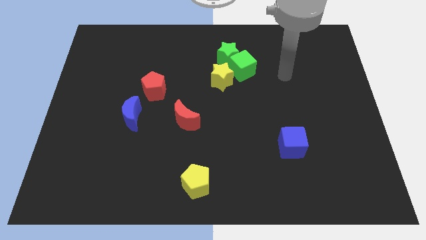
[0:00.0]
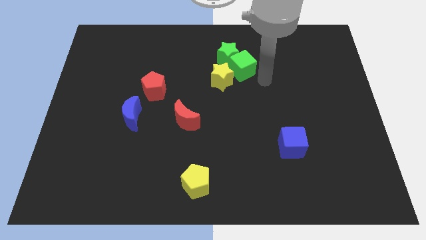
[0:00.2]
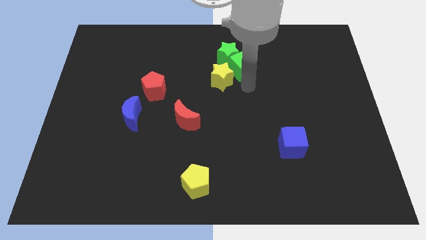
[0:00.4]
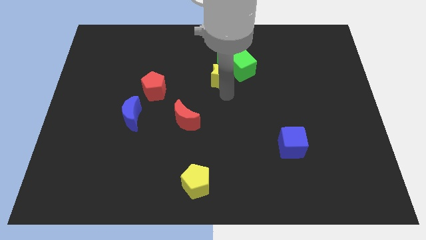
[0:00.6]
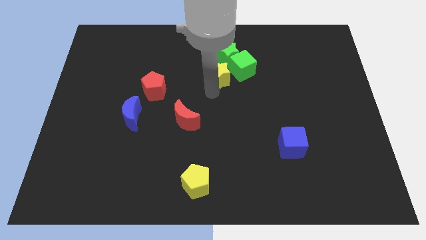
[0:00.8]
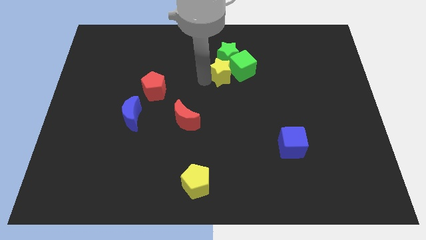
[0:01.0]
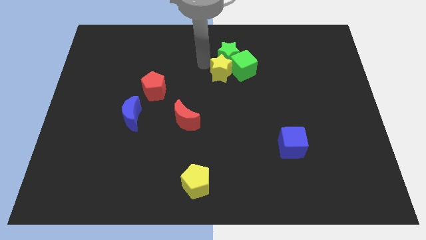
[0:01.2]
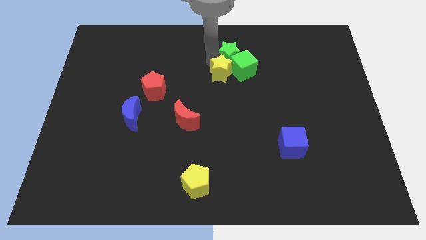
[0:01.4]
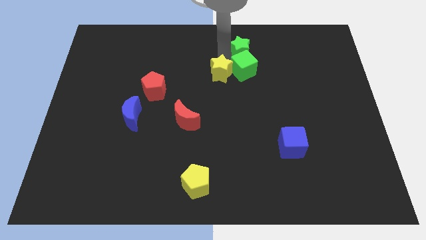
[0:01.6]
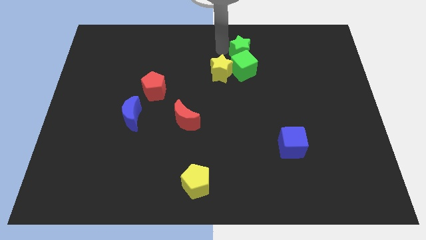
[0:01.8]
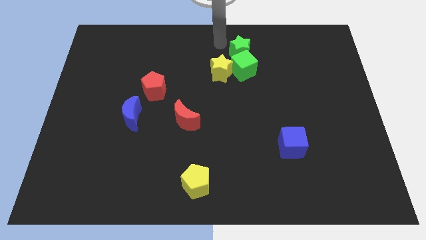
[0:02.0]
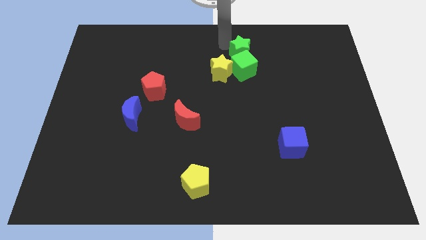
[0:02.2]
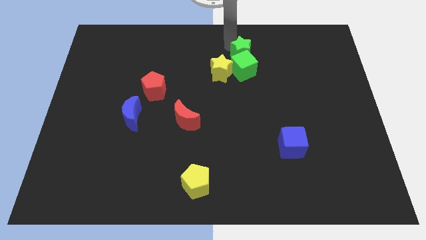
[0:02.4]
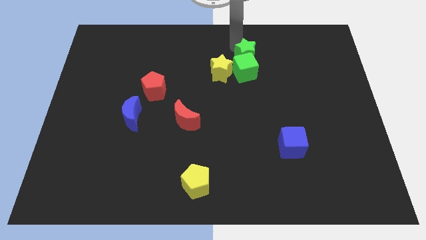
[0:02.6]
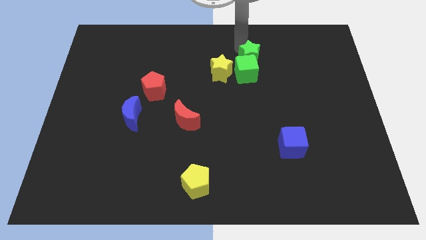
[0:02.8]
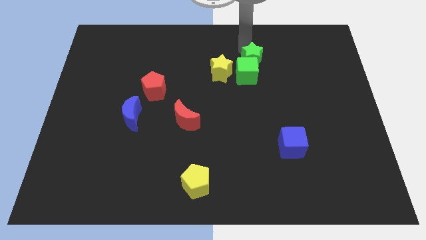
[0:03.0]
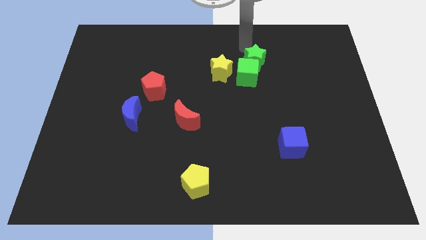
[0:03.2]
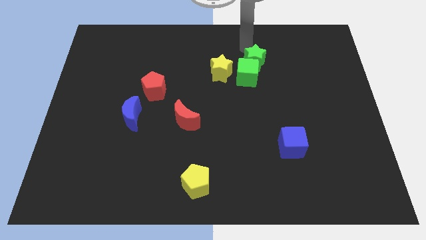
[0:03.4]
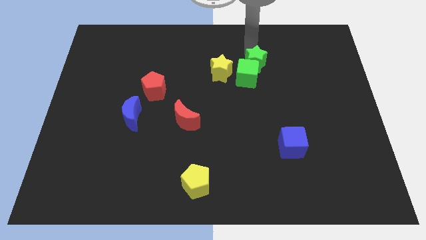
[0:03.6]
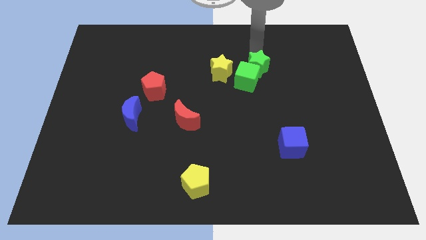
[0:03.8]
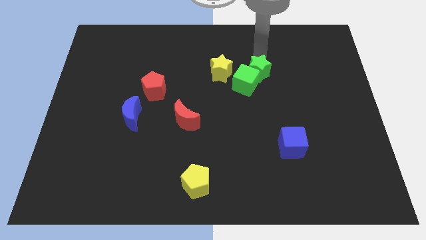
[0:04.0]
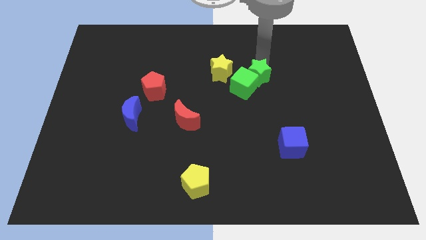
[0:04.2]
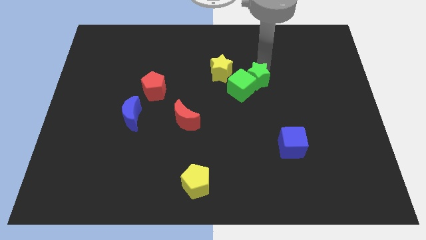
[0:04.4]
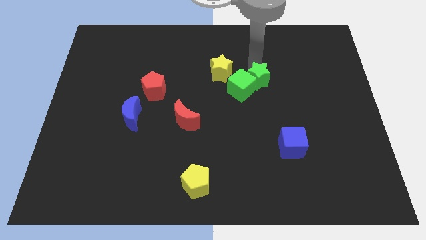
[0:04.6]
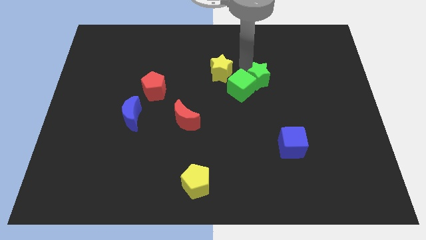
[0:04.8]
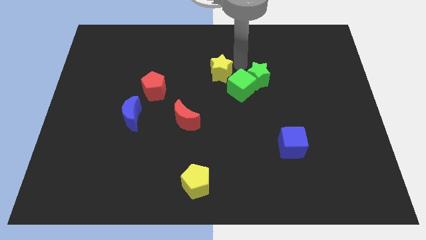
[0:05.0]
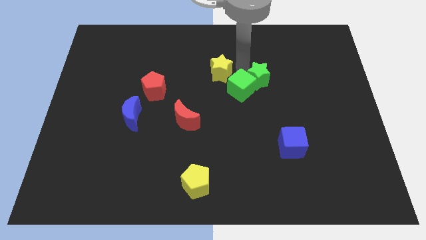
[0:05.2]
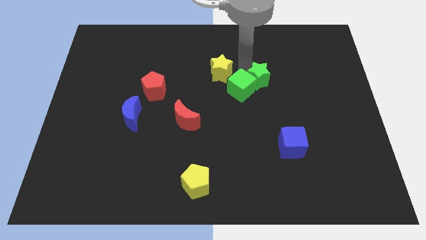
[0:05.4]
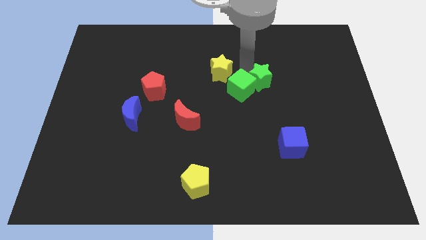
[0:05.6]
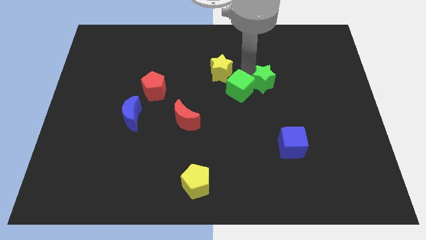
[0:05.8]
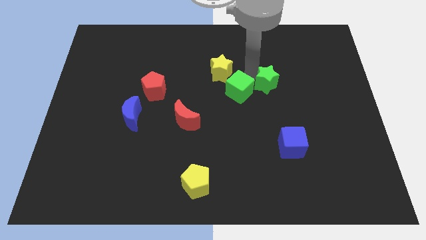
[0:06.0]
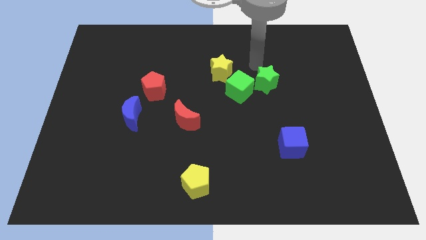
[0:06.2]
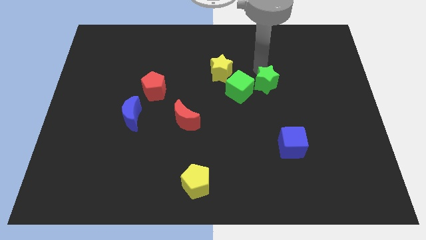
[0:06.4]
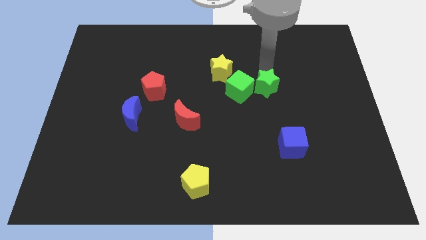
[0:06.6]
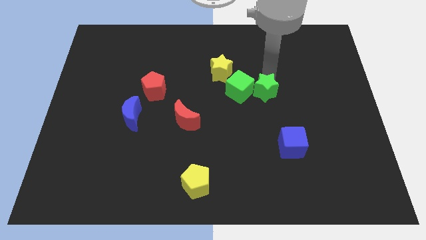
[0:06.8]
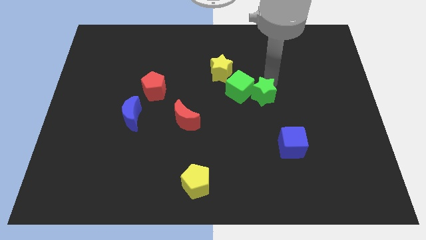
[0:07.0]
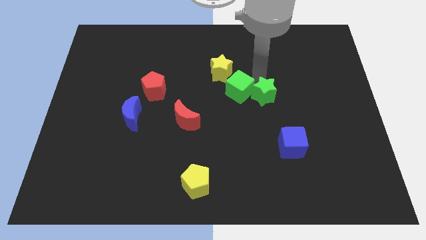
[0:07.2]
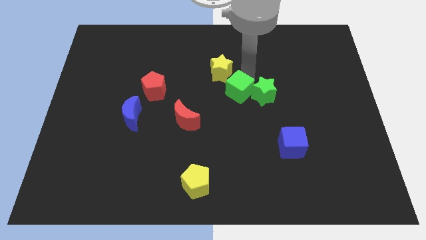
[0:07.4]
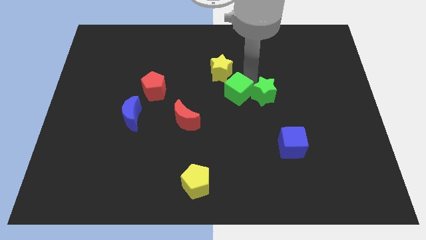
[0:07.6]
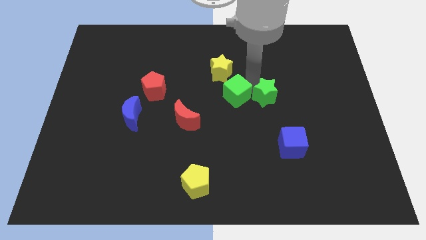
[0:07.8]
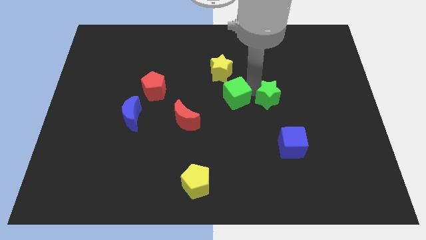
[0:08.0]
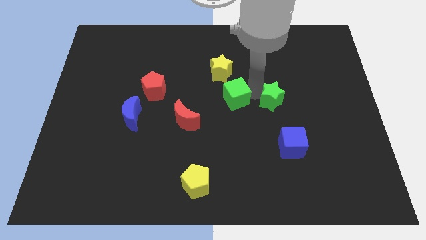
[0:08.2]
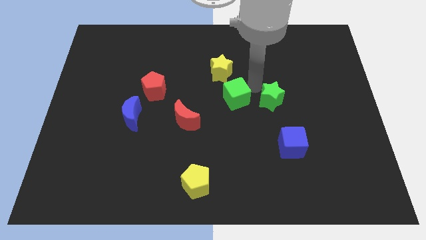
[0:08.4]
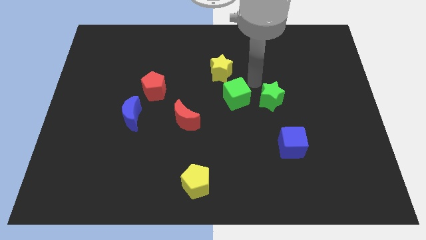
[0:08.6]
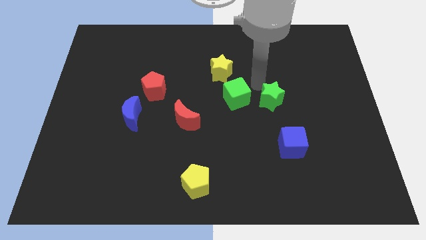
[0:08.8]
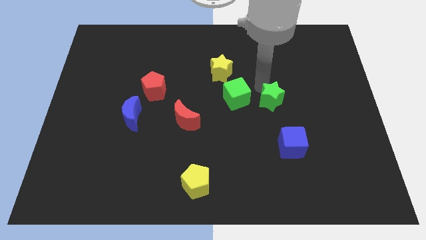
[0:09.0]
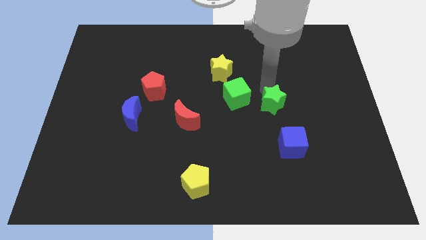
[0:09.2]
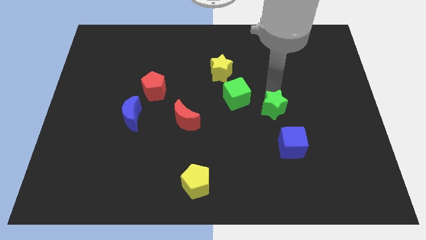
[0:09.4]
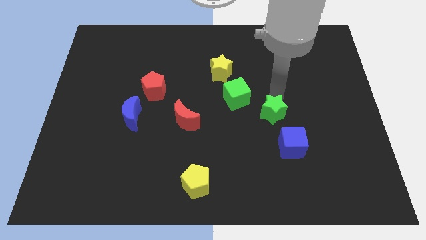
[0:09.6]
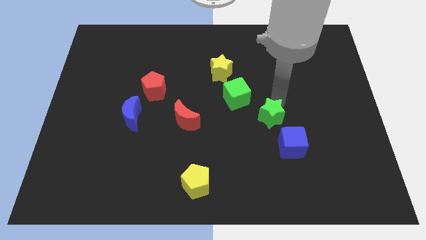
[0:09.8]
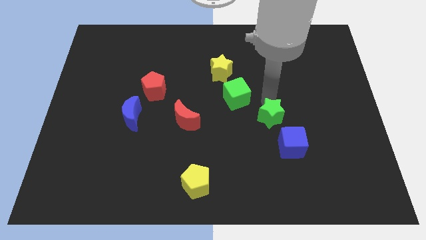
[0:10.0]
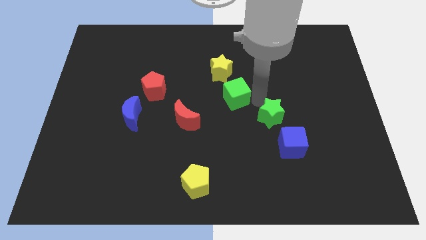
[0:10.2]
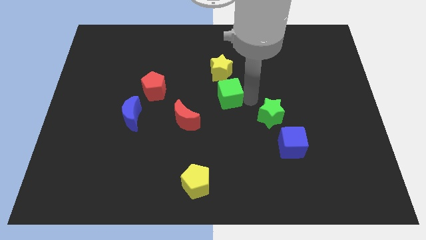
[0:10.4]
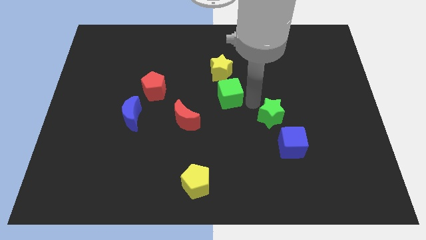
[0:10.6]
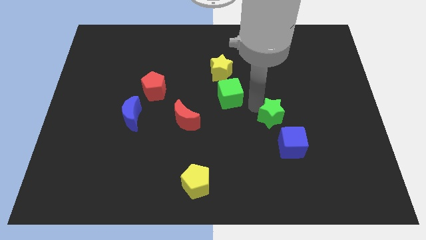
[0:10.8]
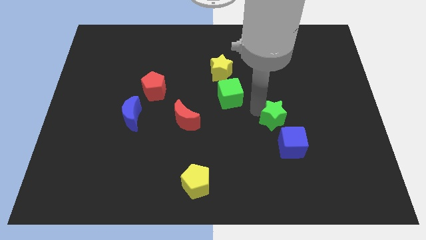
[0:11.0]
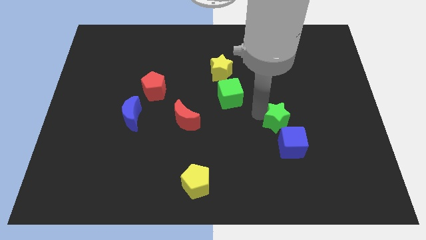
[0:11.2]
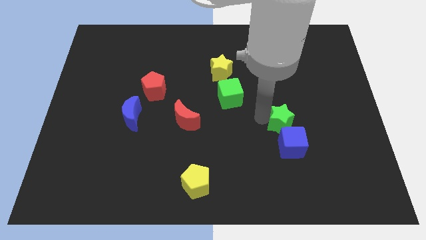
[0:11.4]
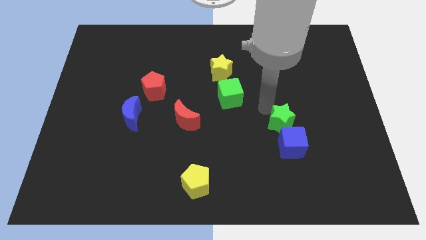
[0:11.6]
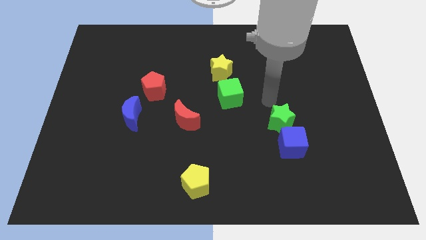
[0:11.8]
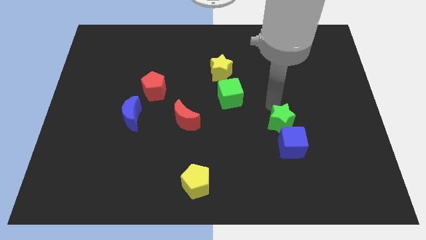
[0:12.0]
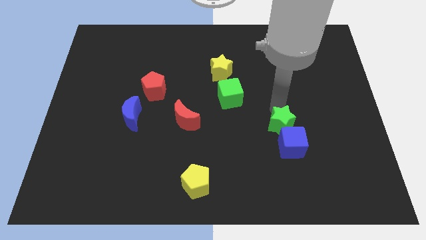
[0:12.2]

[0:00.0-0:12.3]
move the green star next to the blue cube
